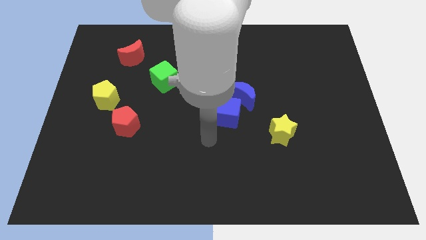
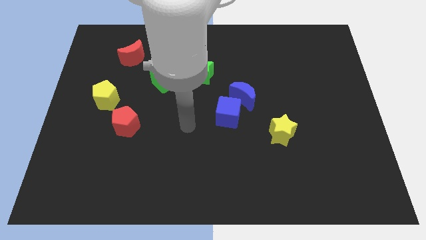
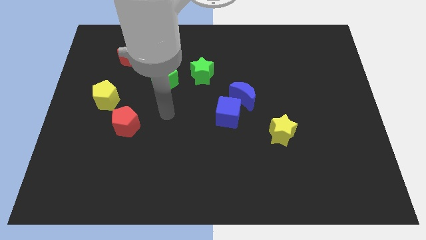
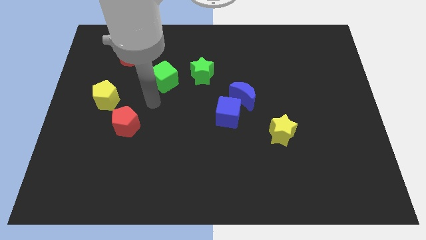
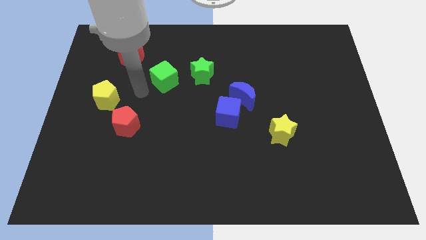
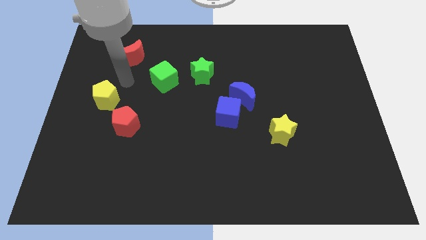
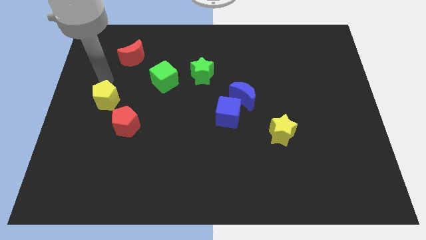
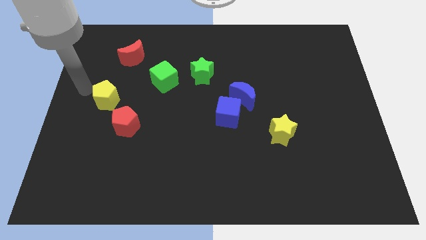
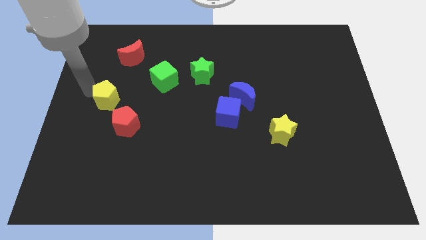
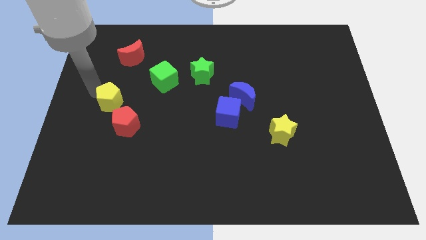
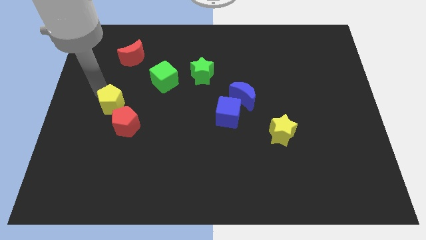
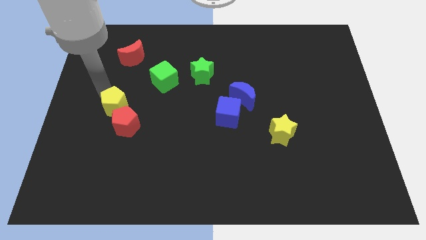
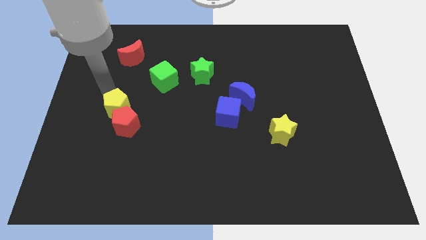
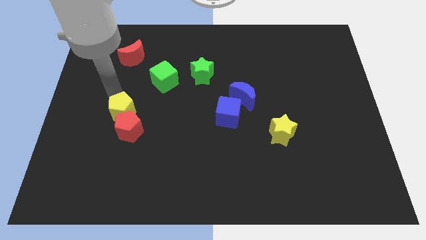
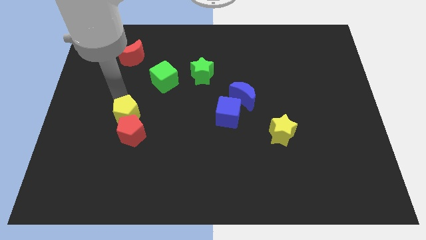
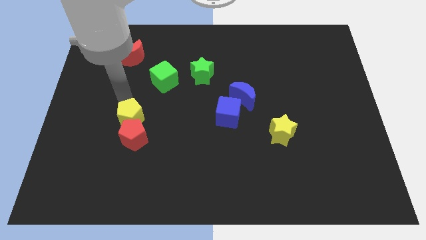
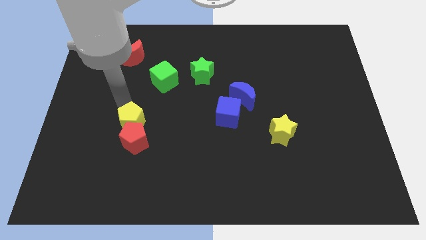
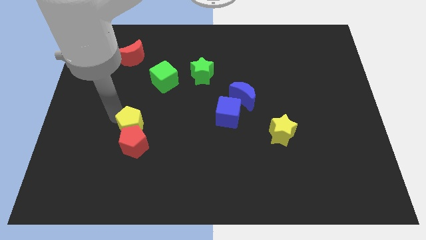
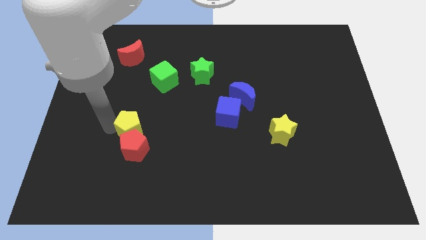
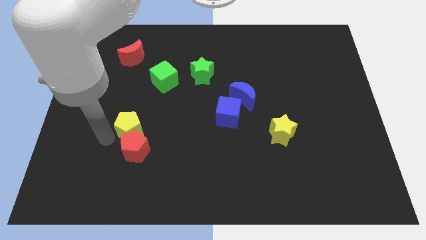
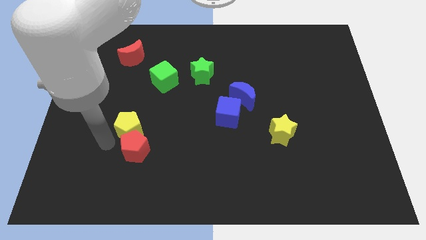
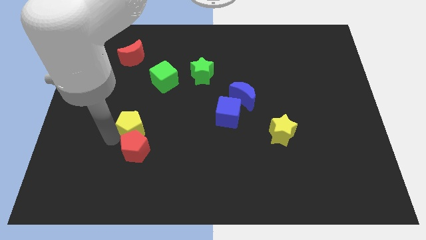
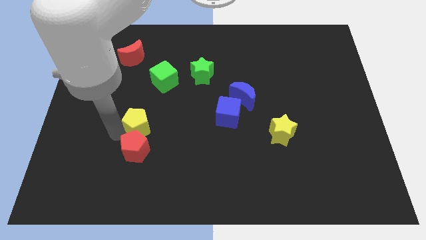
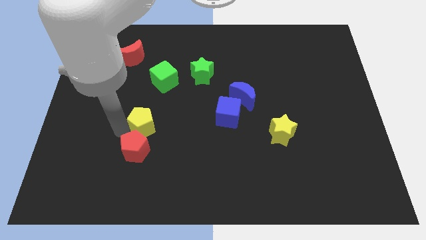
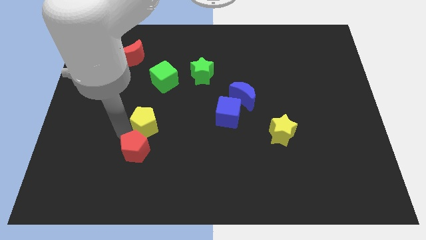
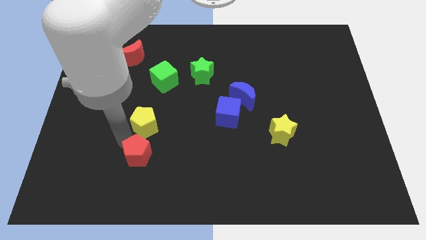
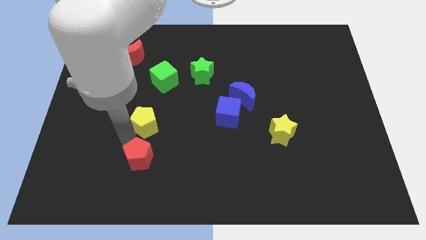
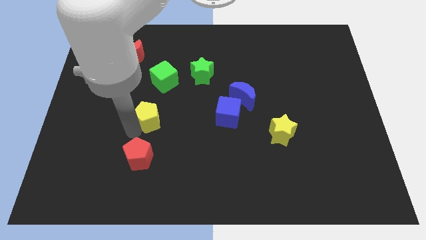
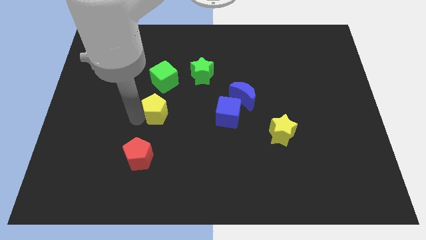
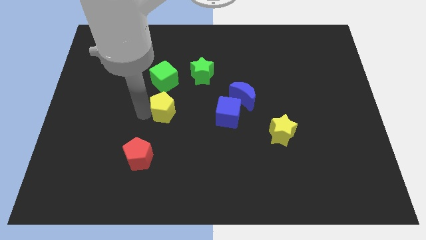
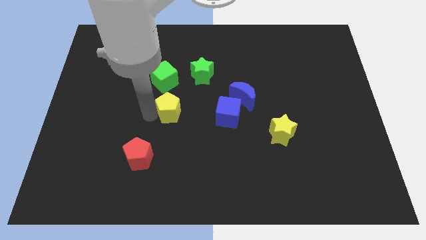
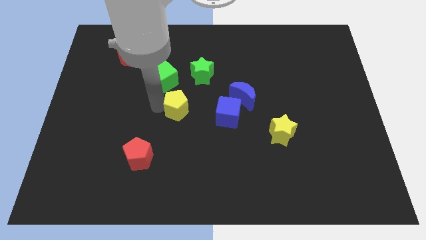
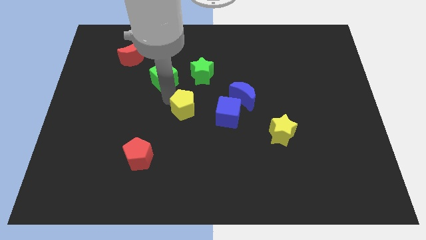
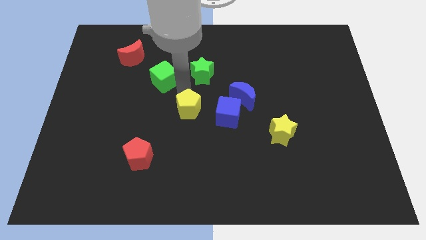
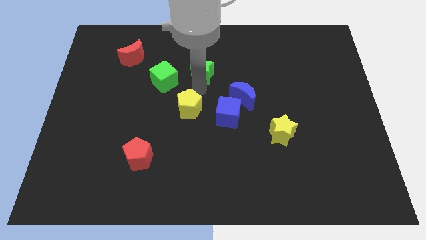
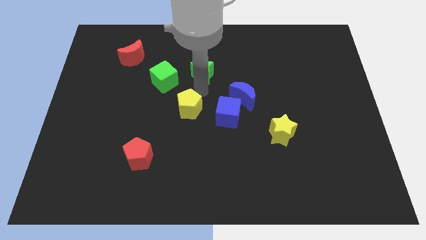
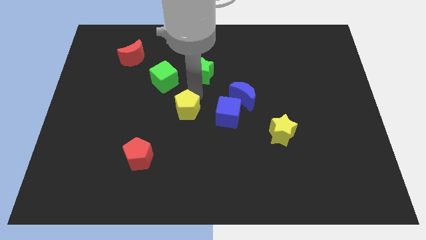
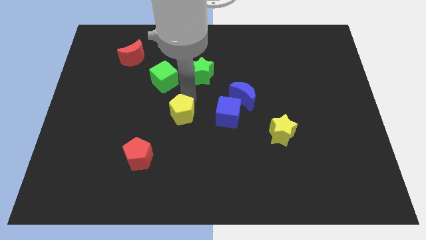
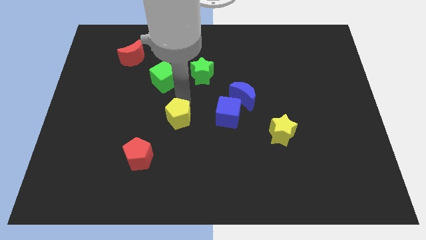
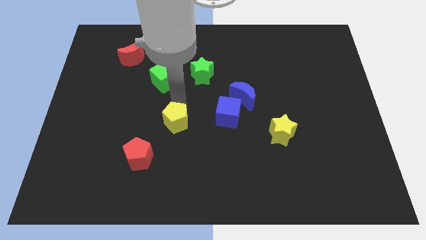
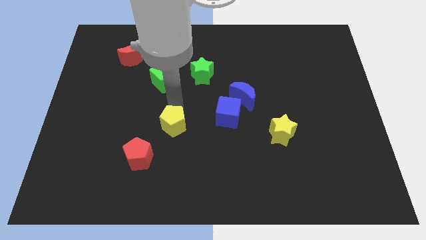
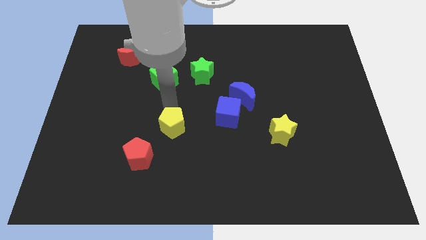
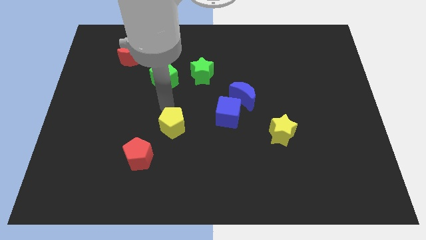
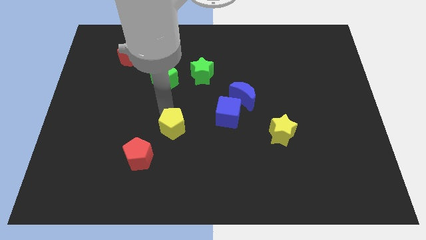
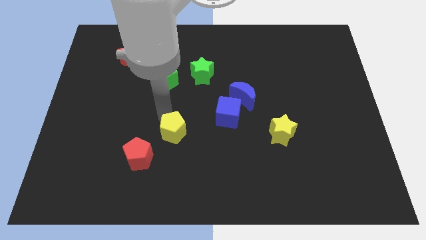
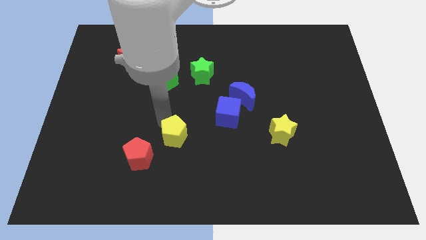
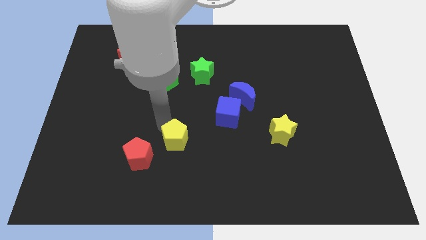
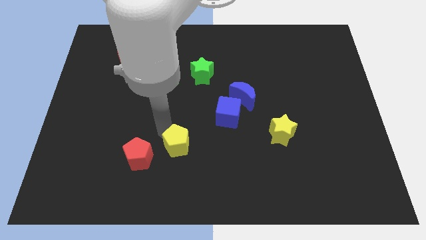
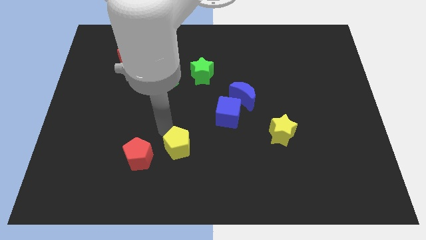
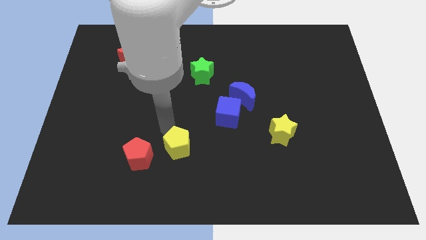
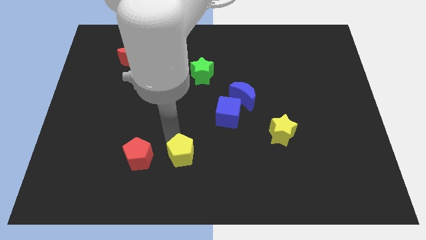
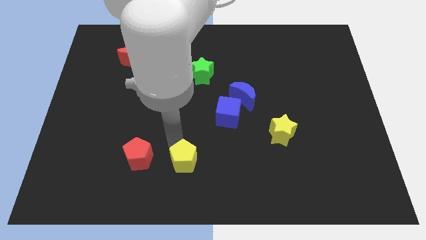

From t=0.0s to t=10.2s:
move the yellow pentagon to the bottom side

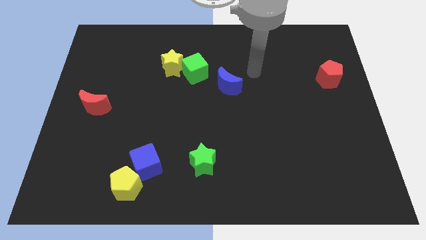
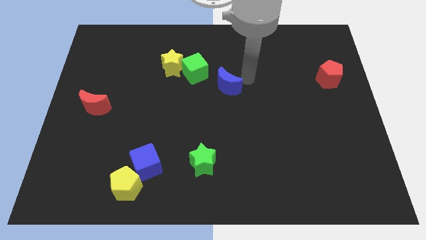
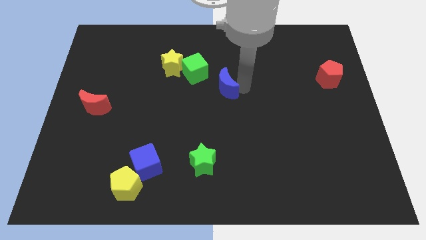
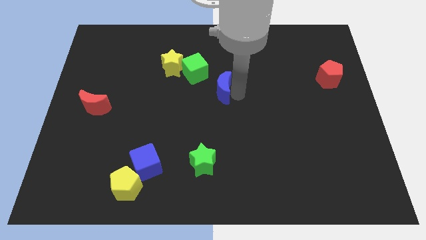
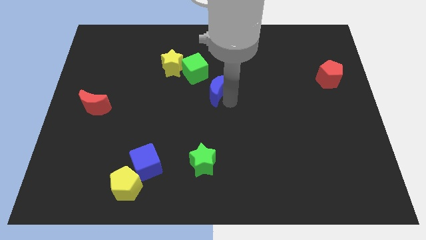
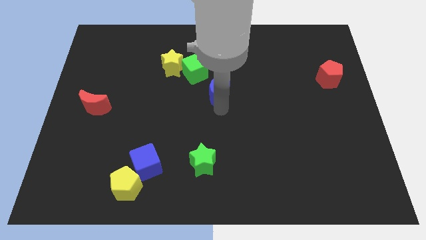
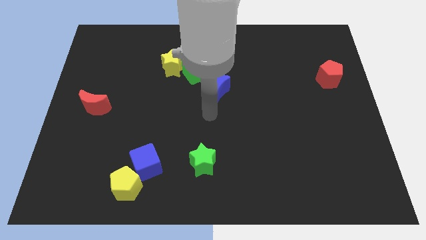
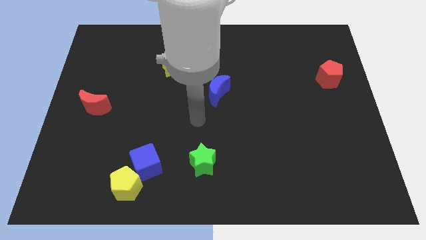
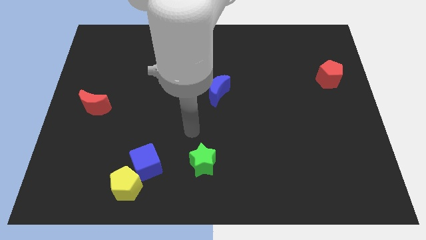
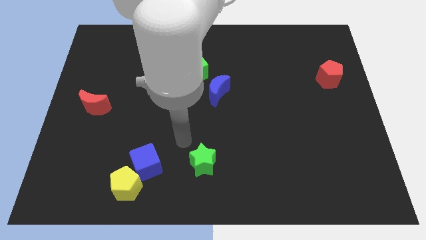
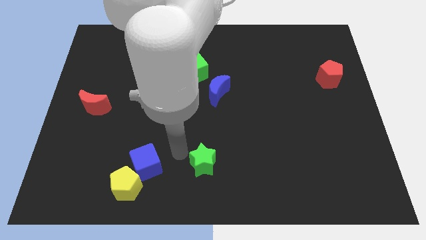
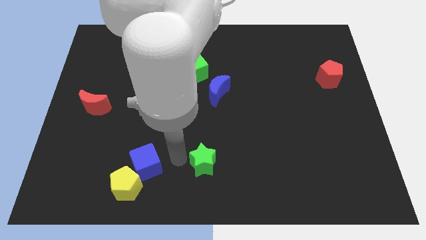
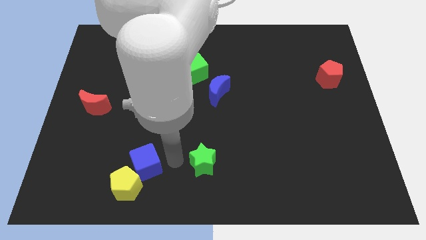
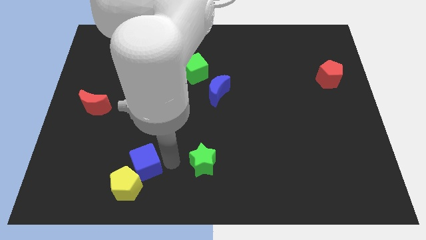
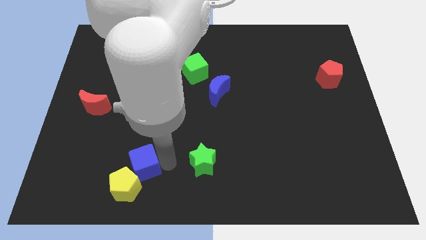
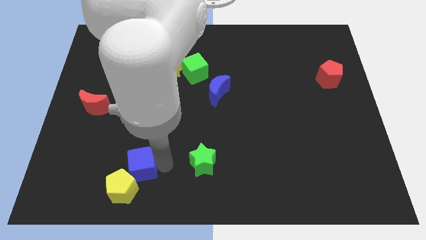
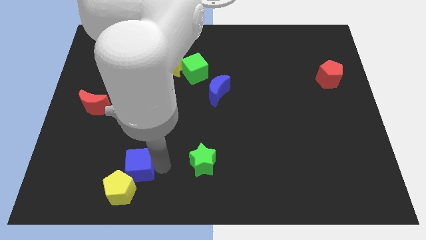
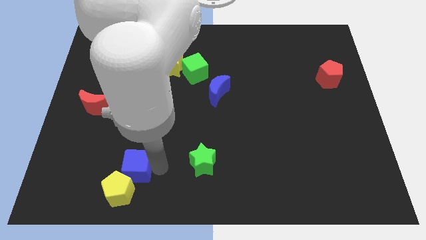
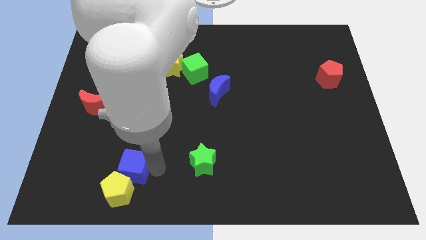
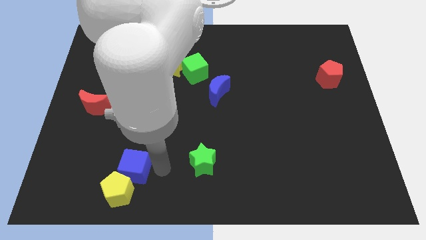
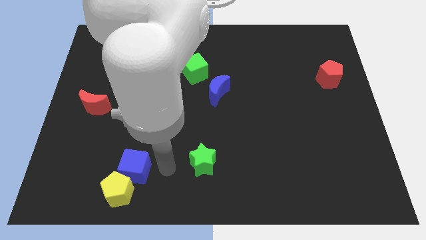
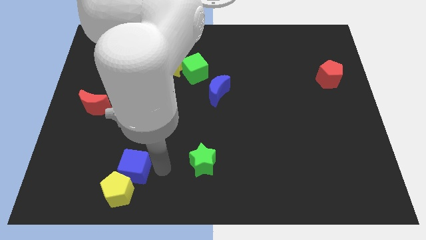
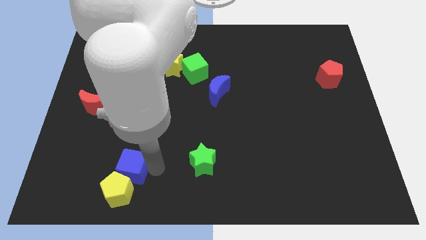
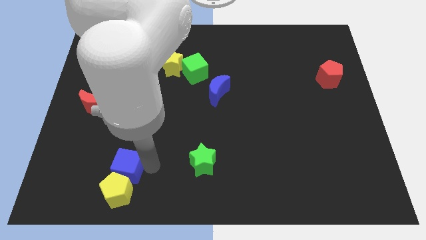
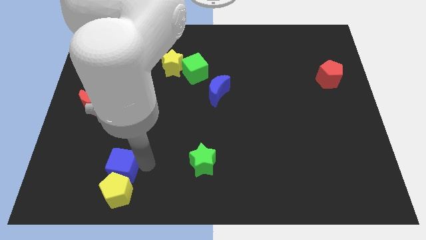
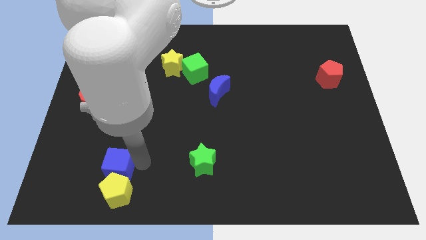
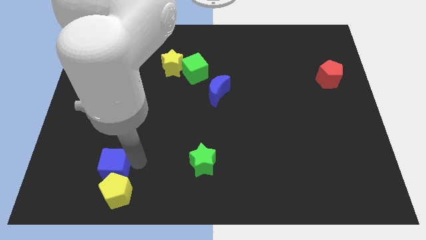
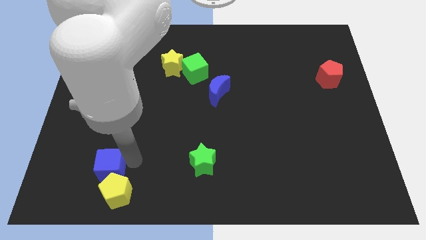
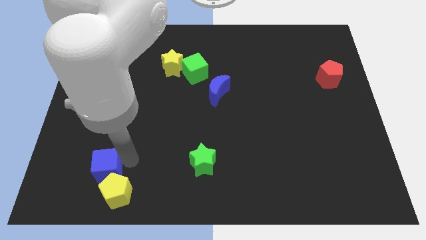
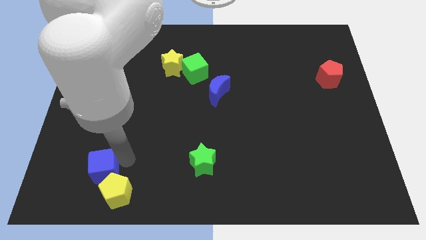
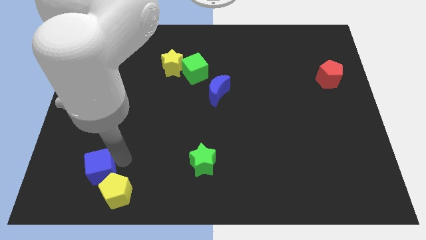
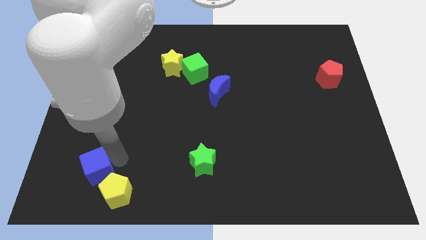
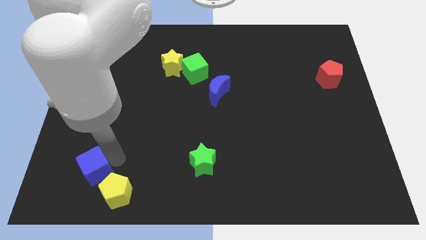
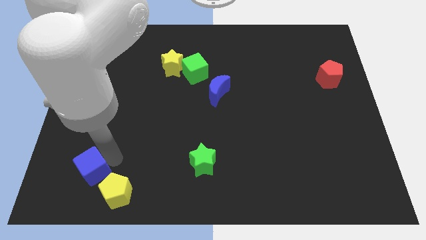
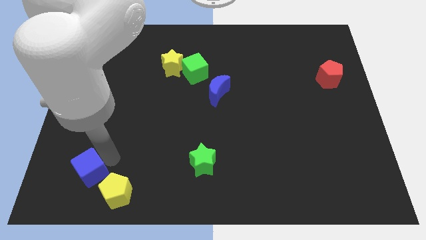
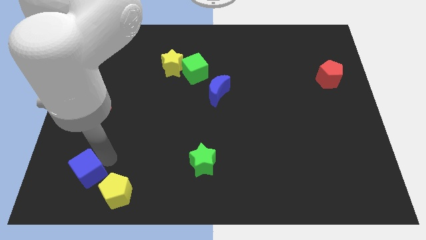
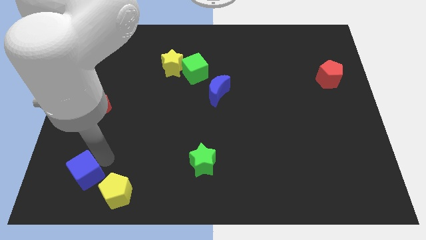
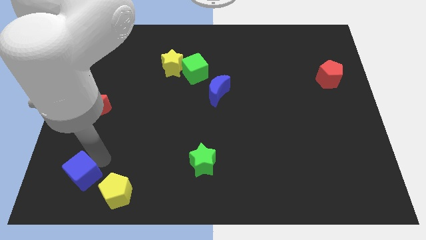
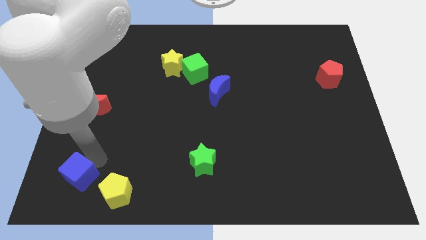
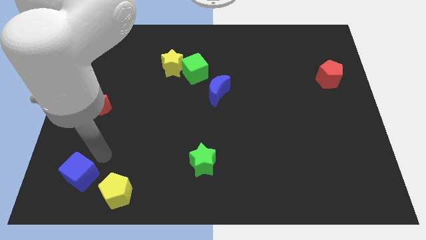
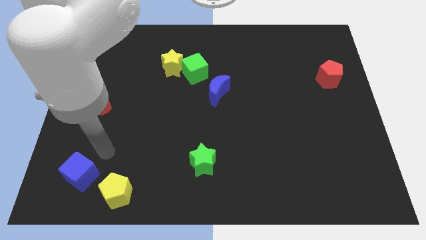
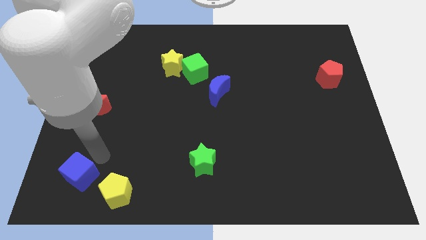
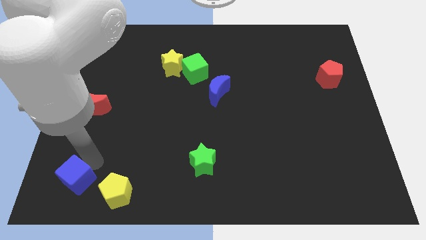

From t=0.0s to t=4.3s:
slide the blue cube to the bottom left
